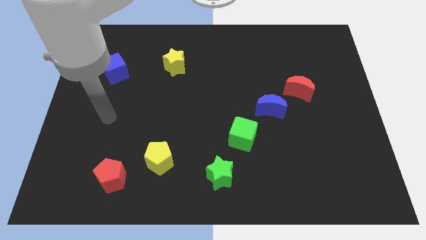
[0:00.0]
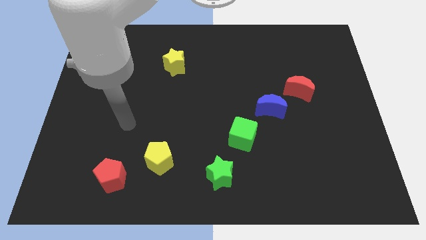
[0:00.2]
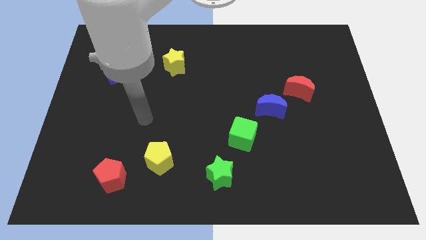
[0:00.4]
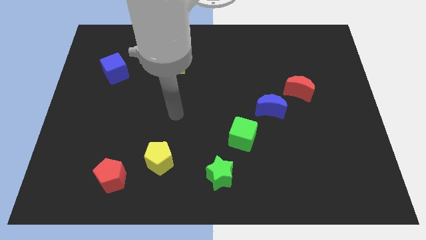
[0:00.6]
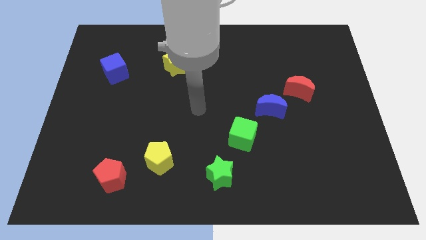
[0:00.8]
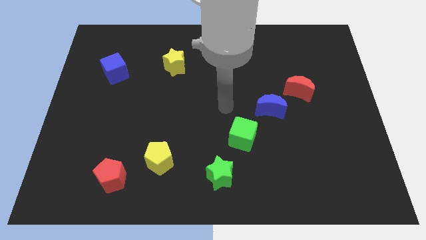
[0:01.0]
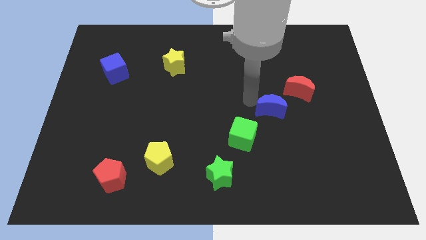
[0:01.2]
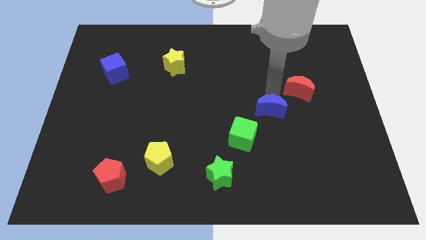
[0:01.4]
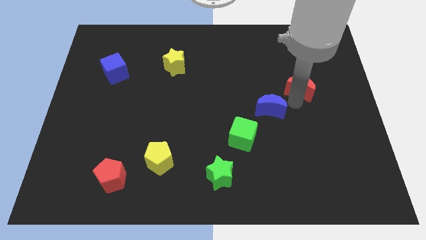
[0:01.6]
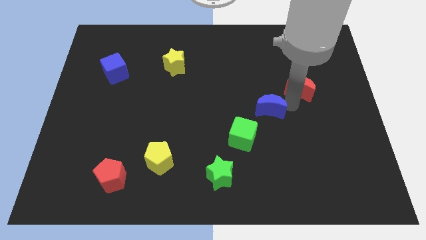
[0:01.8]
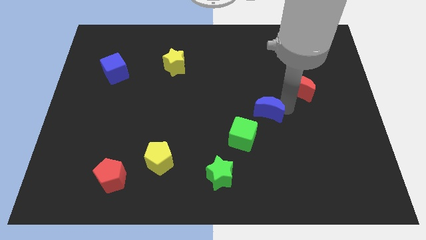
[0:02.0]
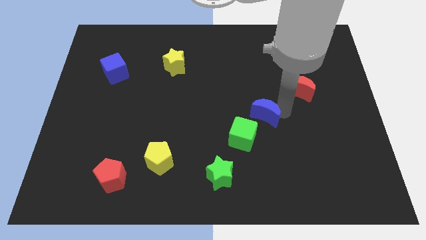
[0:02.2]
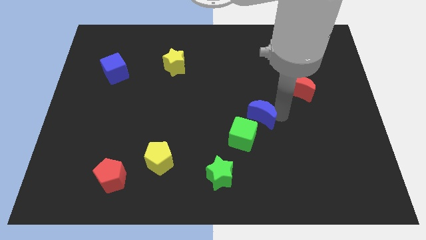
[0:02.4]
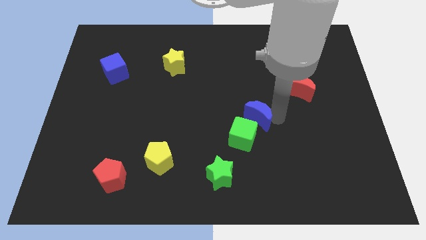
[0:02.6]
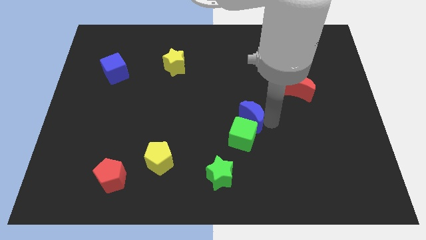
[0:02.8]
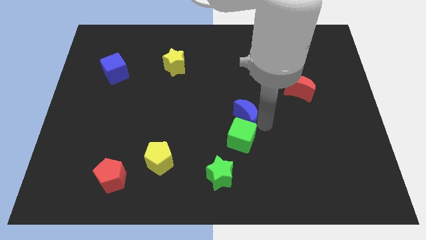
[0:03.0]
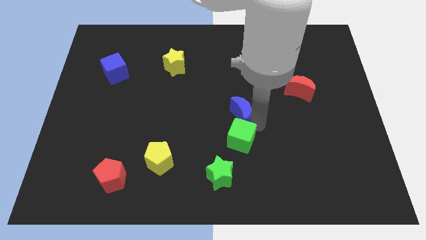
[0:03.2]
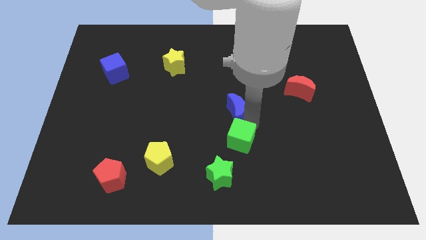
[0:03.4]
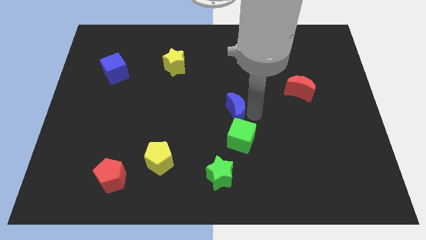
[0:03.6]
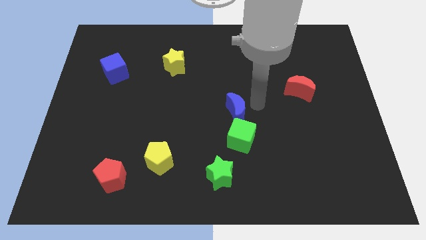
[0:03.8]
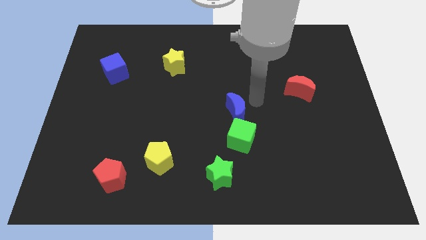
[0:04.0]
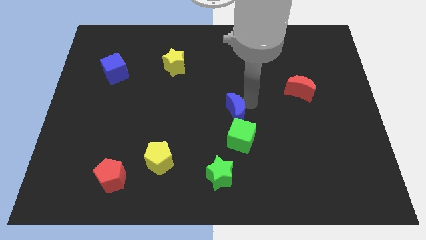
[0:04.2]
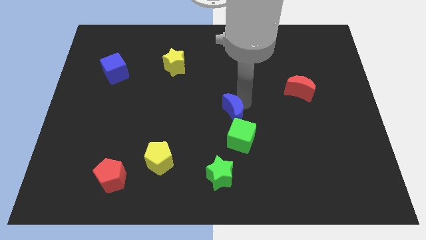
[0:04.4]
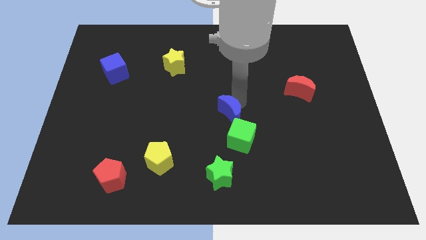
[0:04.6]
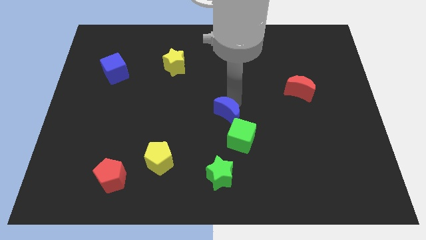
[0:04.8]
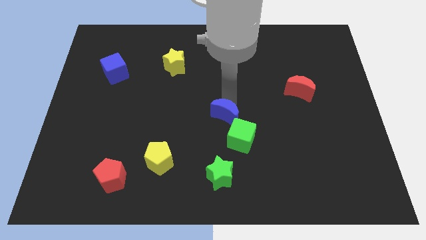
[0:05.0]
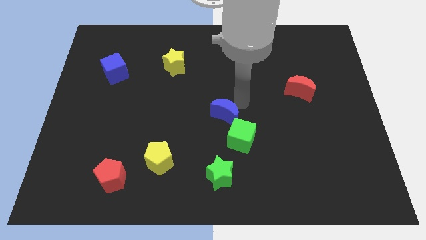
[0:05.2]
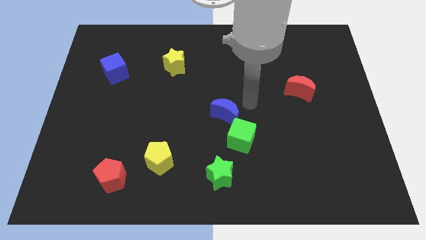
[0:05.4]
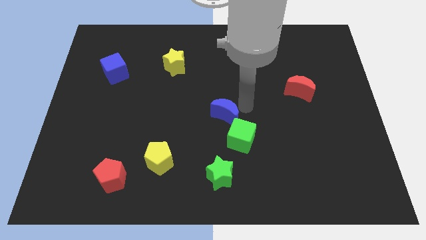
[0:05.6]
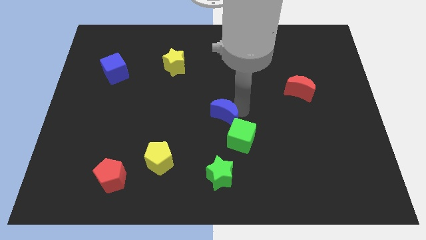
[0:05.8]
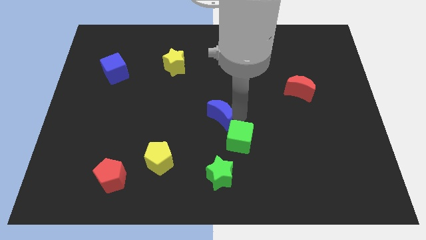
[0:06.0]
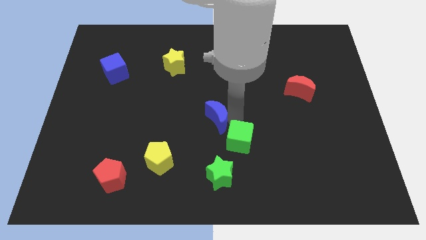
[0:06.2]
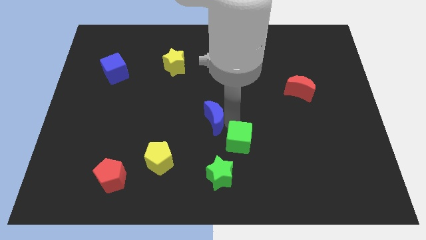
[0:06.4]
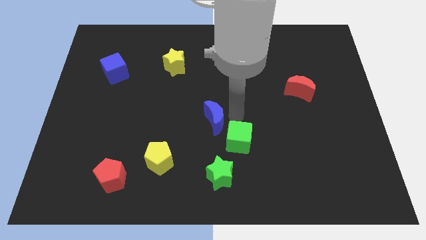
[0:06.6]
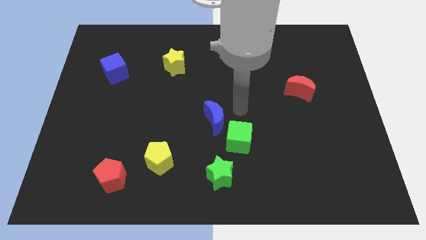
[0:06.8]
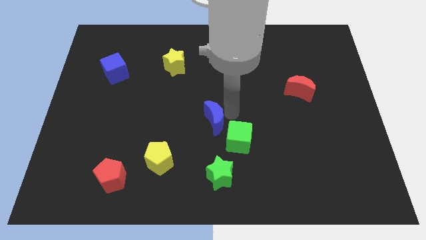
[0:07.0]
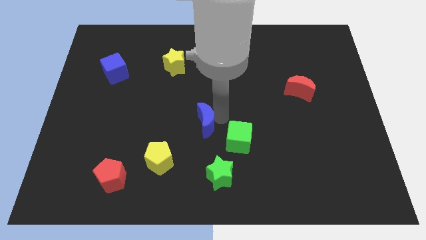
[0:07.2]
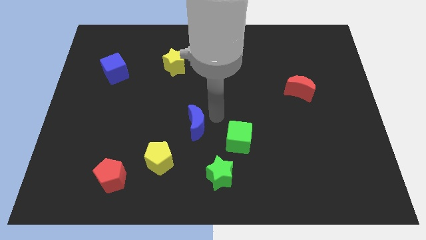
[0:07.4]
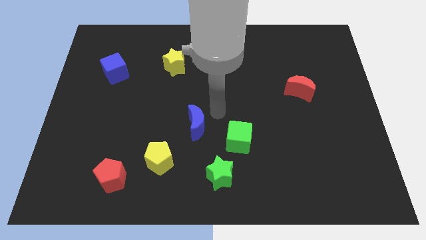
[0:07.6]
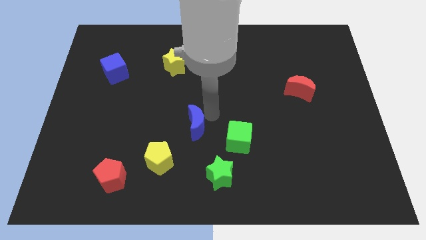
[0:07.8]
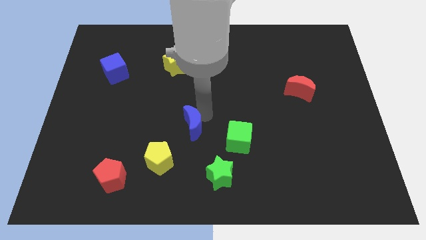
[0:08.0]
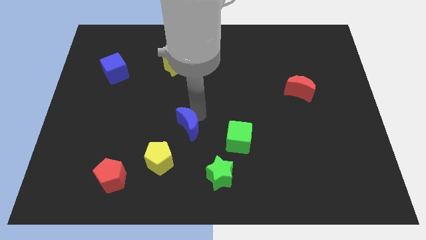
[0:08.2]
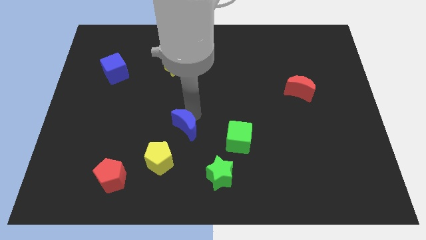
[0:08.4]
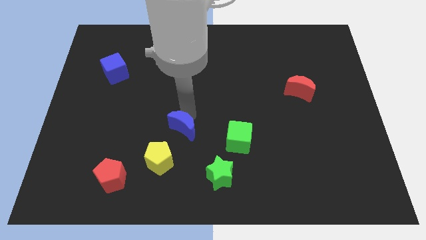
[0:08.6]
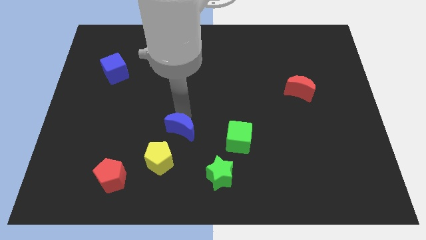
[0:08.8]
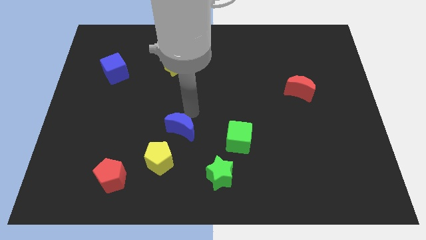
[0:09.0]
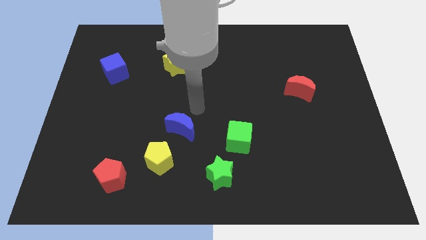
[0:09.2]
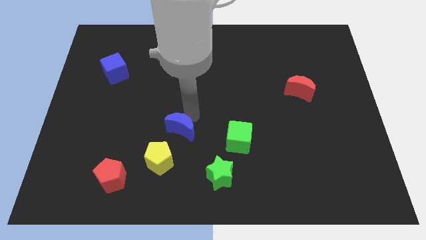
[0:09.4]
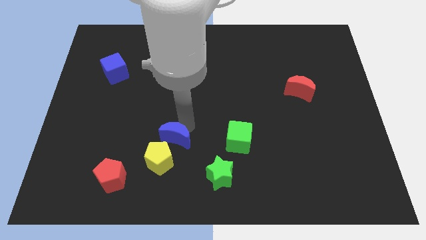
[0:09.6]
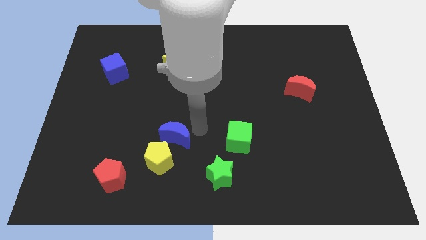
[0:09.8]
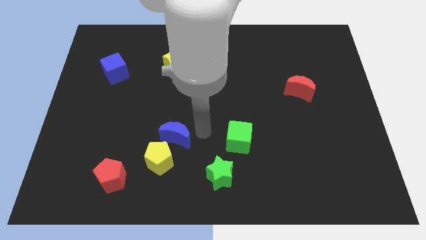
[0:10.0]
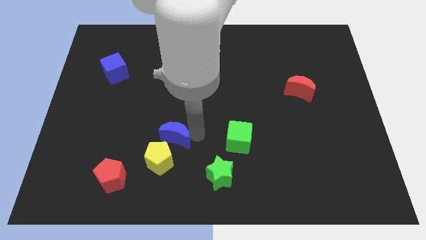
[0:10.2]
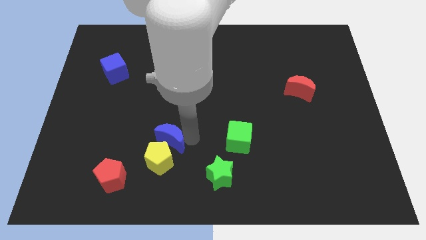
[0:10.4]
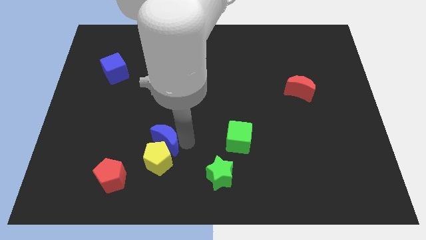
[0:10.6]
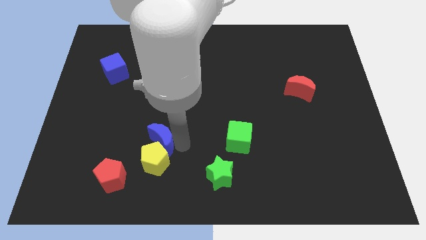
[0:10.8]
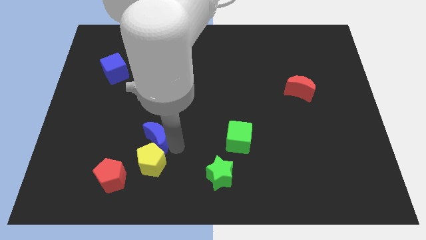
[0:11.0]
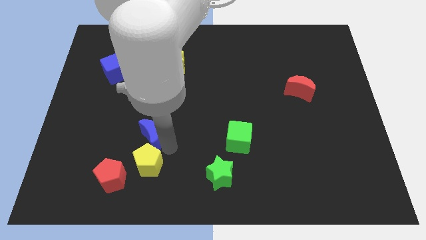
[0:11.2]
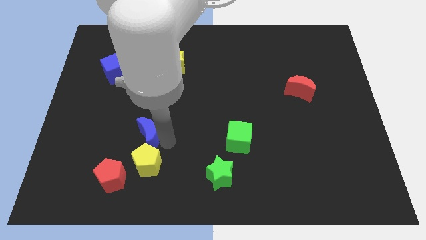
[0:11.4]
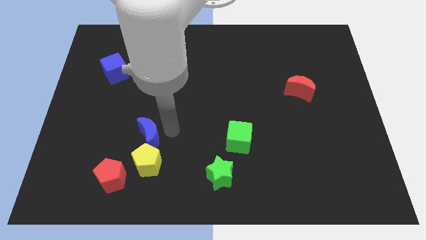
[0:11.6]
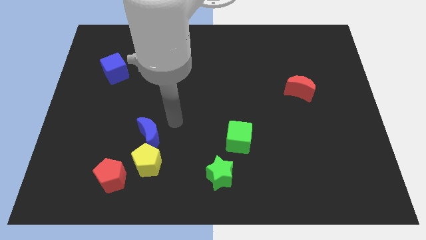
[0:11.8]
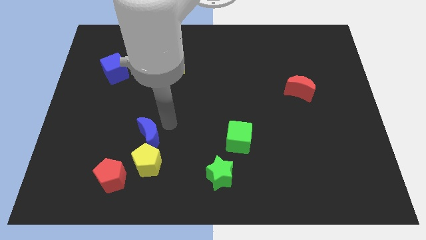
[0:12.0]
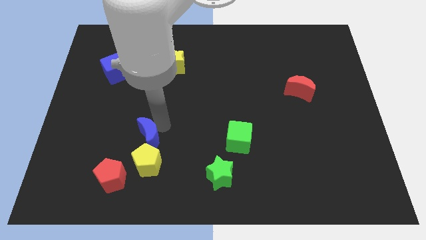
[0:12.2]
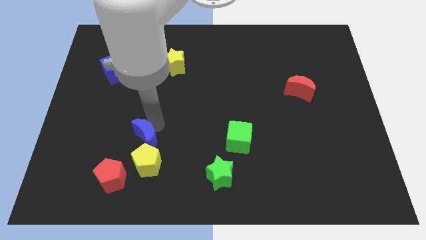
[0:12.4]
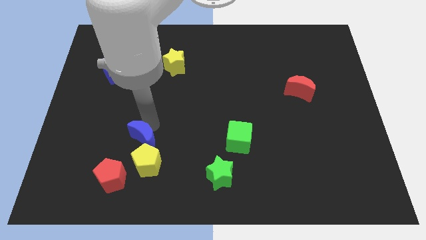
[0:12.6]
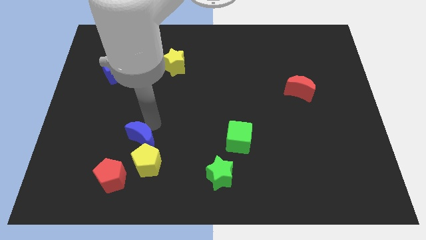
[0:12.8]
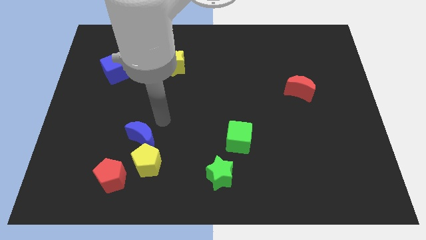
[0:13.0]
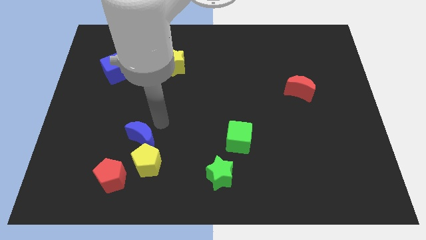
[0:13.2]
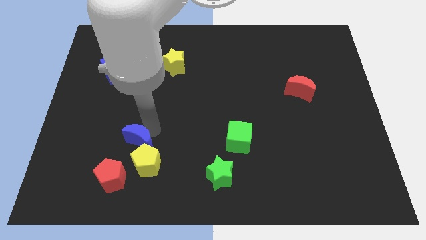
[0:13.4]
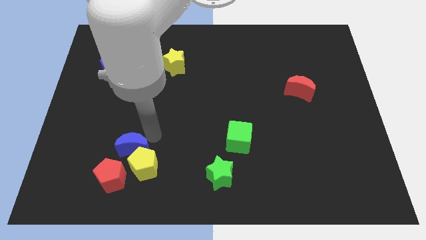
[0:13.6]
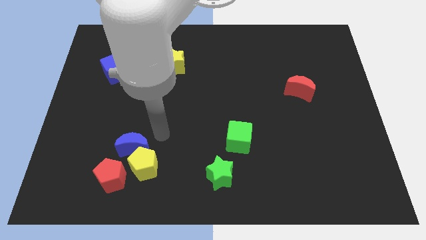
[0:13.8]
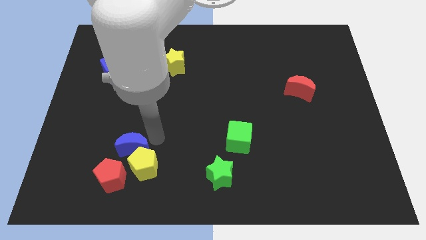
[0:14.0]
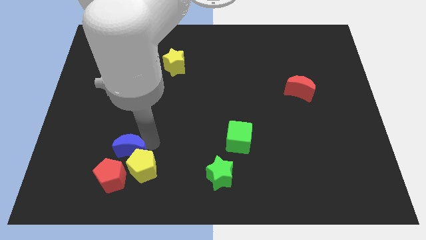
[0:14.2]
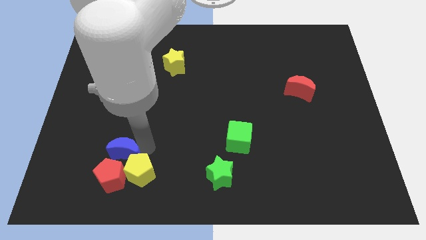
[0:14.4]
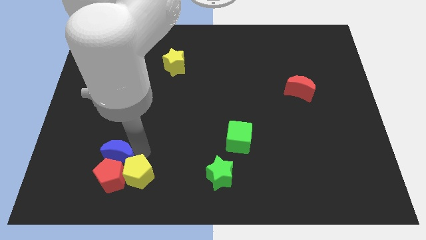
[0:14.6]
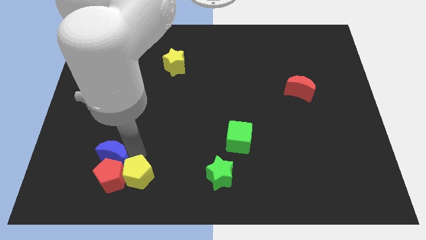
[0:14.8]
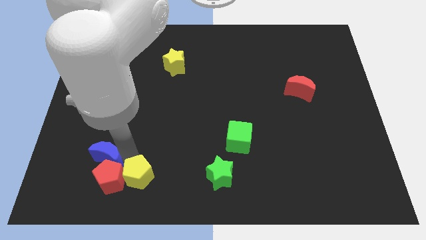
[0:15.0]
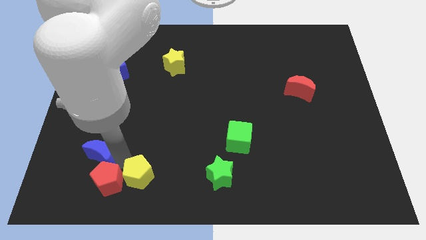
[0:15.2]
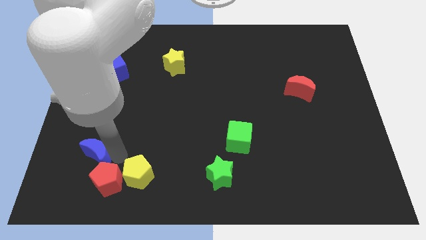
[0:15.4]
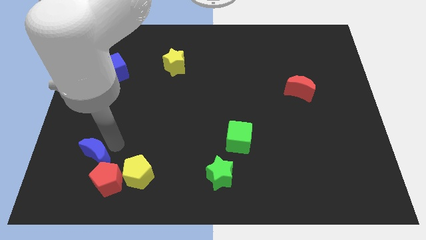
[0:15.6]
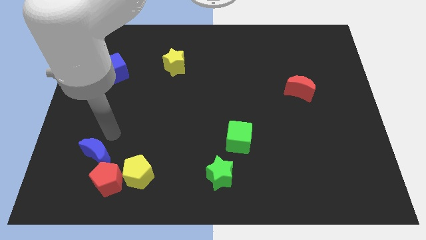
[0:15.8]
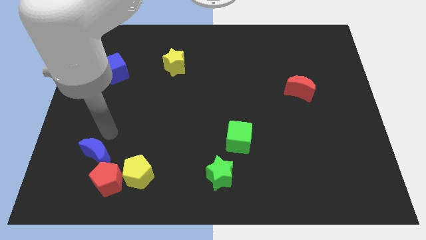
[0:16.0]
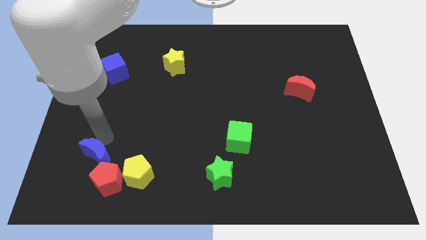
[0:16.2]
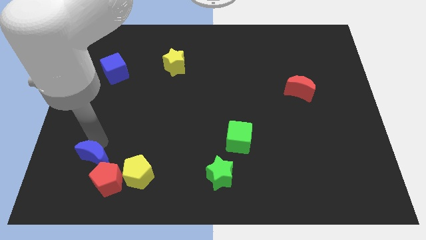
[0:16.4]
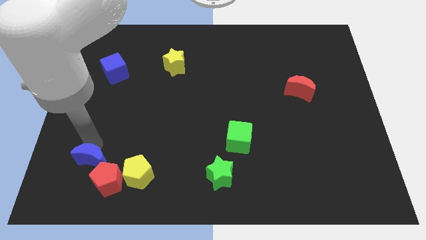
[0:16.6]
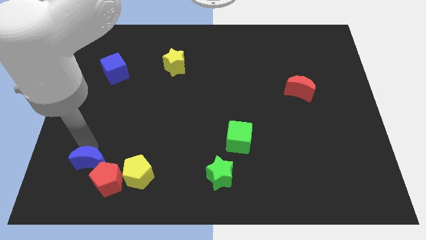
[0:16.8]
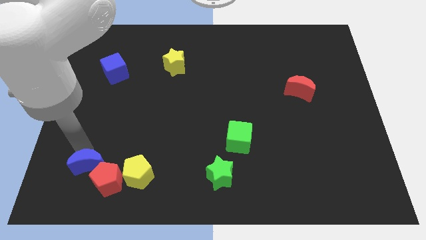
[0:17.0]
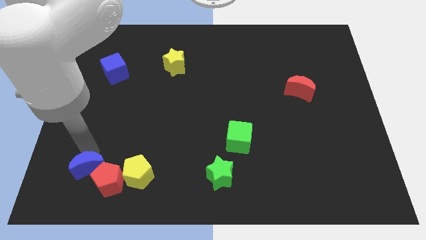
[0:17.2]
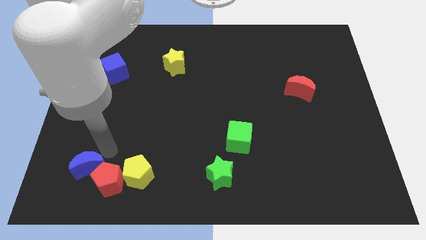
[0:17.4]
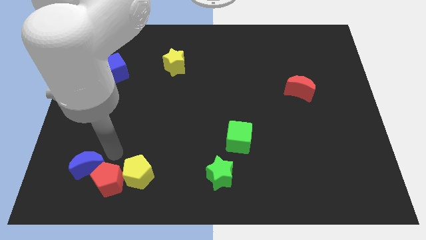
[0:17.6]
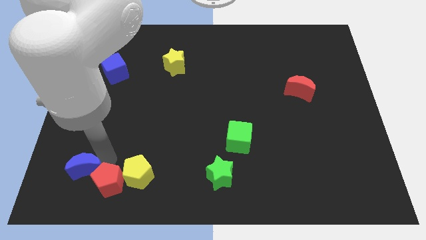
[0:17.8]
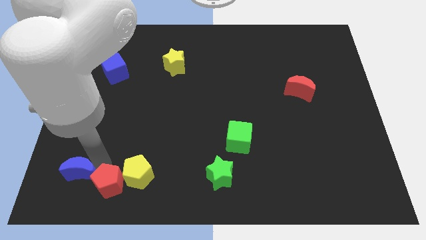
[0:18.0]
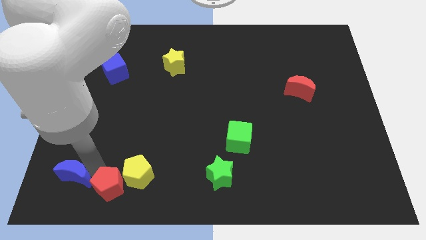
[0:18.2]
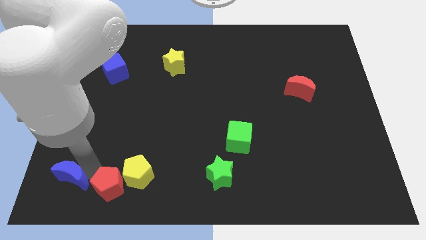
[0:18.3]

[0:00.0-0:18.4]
slide the blue moon to the bottom left of the board
